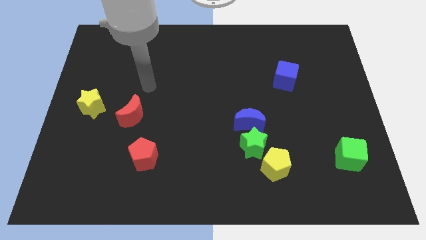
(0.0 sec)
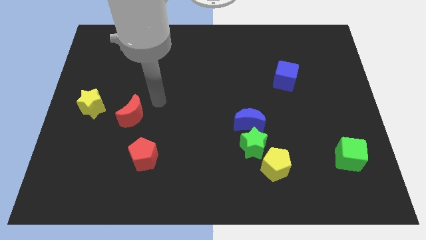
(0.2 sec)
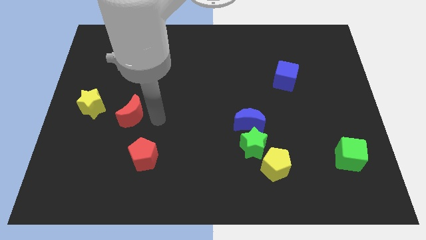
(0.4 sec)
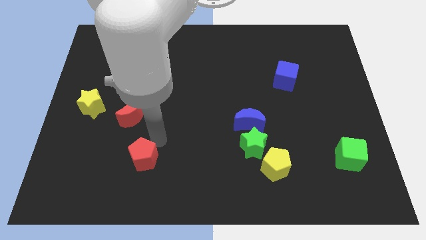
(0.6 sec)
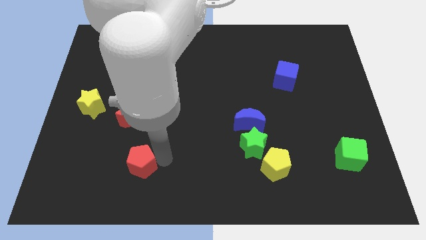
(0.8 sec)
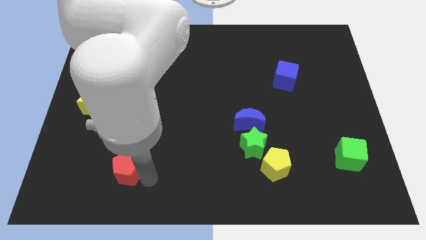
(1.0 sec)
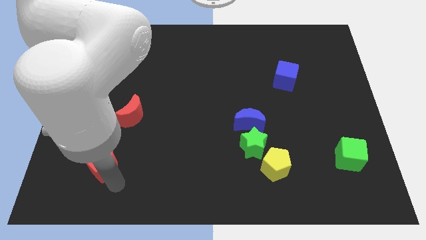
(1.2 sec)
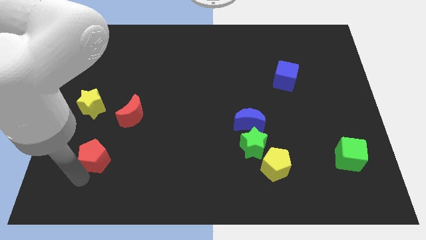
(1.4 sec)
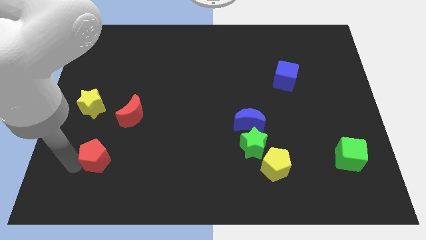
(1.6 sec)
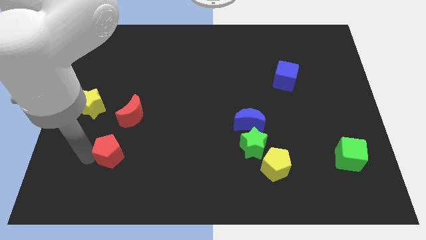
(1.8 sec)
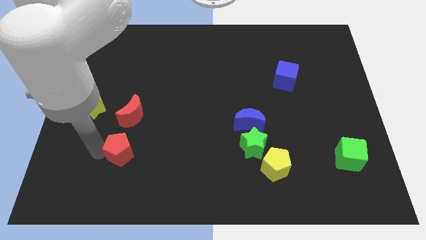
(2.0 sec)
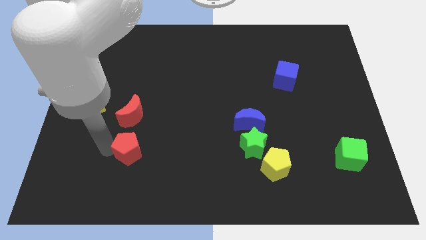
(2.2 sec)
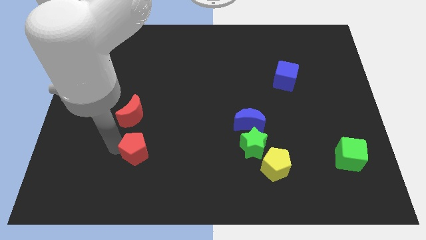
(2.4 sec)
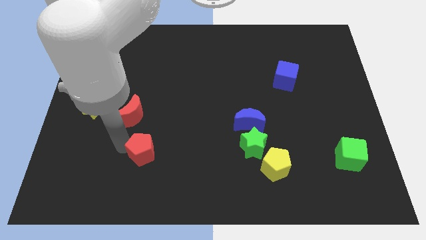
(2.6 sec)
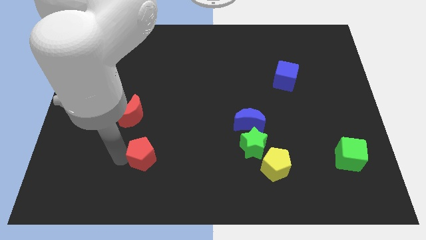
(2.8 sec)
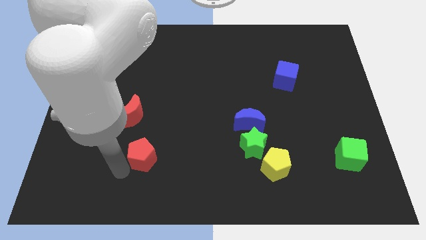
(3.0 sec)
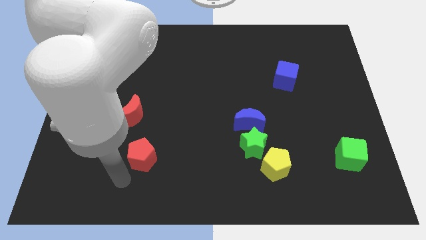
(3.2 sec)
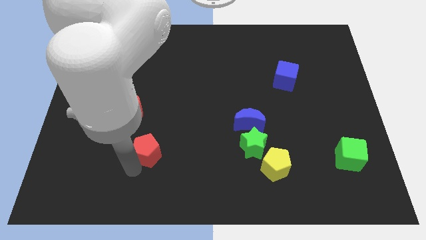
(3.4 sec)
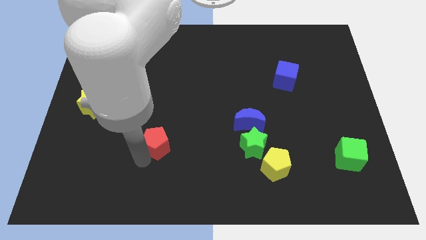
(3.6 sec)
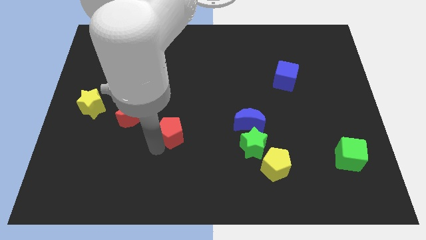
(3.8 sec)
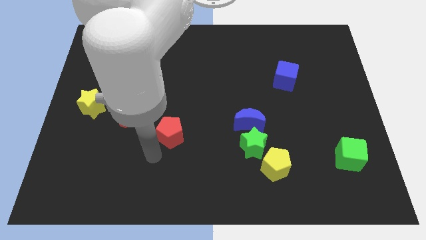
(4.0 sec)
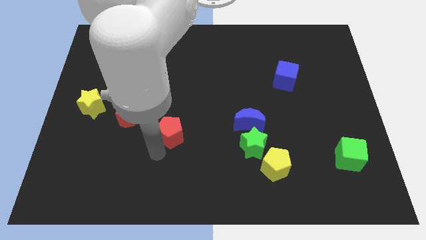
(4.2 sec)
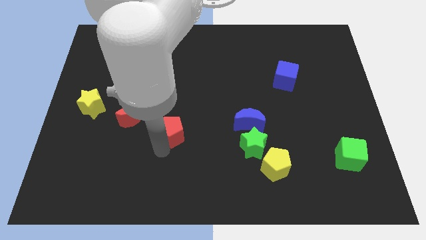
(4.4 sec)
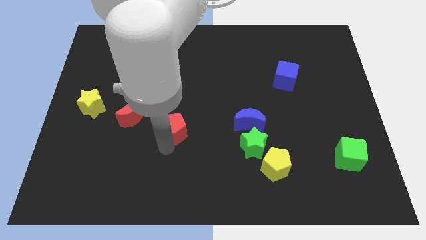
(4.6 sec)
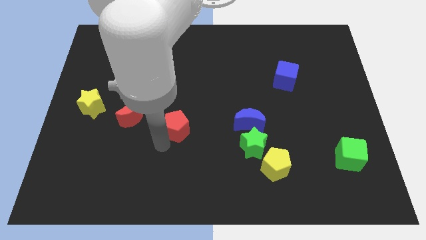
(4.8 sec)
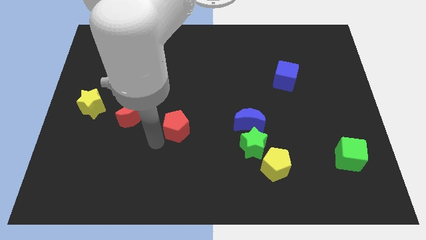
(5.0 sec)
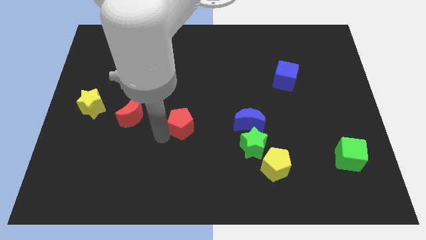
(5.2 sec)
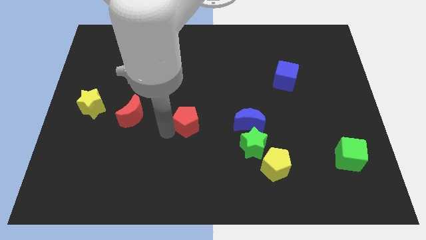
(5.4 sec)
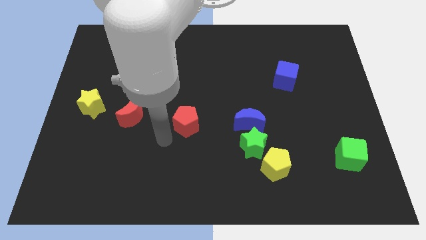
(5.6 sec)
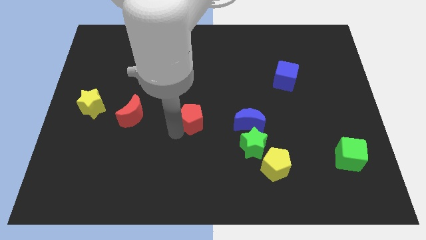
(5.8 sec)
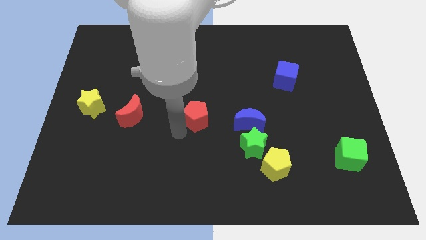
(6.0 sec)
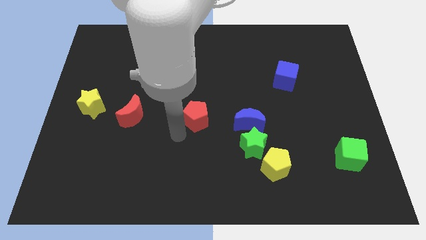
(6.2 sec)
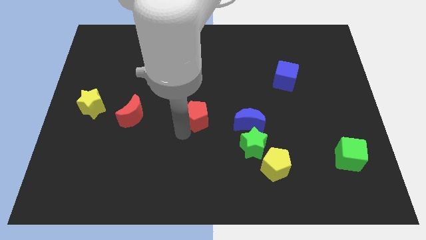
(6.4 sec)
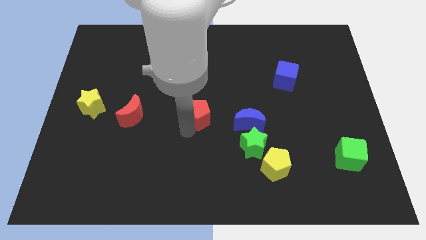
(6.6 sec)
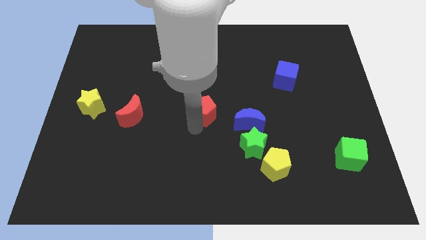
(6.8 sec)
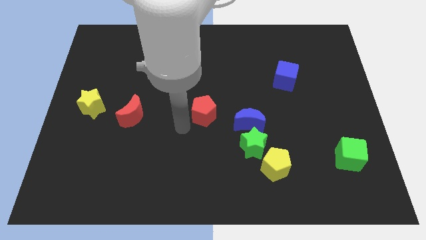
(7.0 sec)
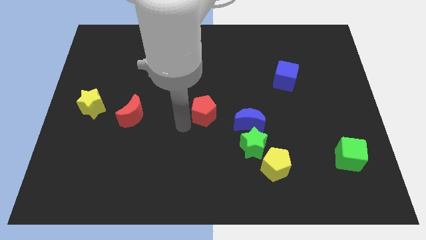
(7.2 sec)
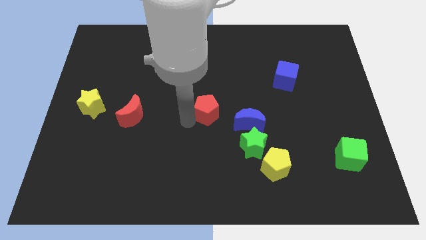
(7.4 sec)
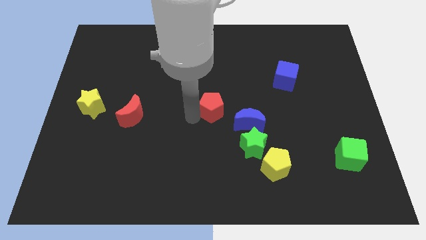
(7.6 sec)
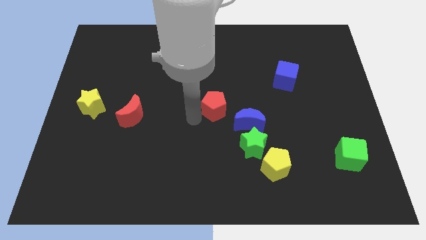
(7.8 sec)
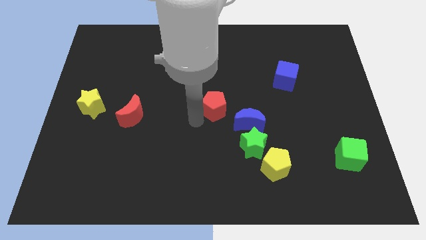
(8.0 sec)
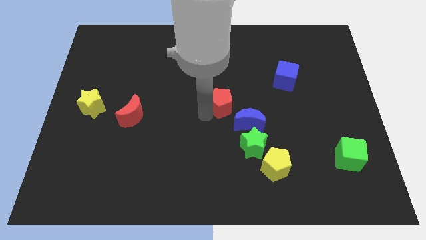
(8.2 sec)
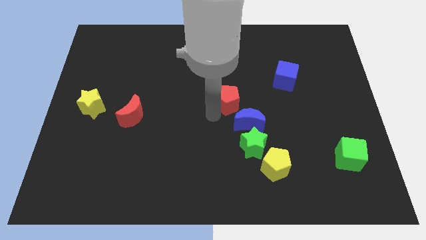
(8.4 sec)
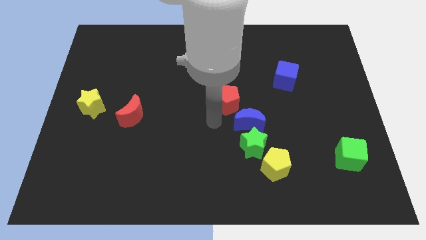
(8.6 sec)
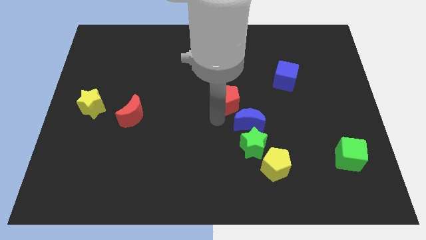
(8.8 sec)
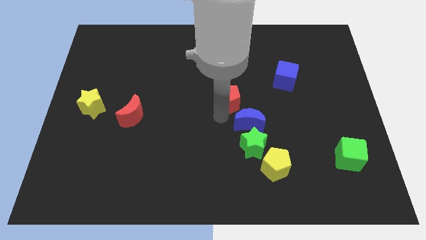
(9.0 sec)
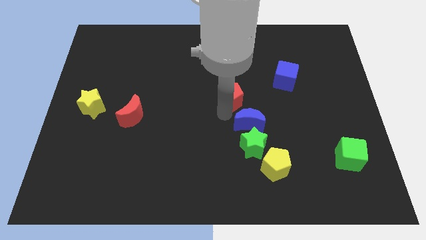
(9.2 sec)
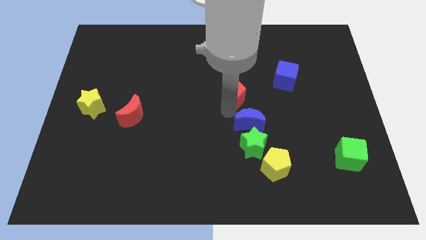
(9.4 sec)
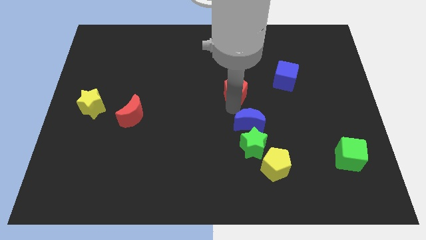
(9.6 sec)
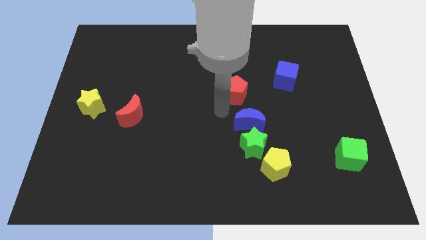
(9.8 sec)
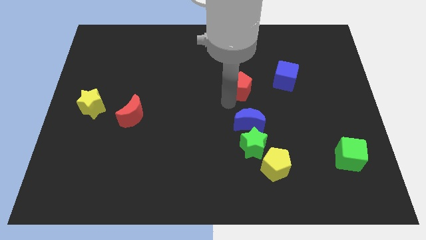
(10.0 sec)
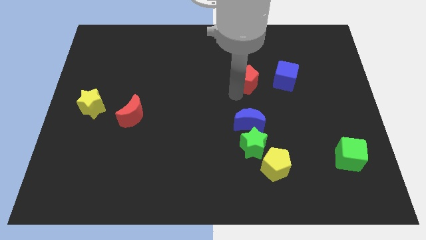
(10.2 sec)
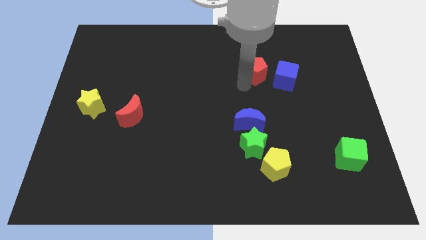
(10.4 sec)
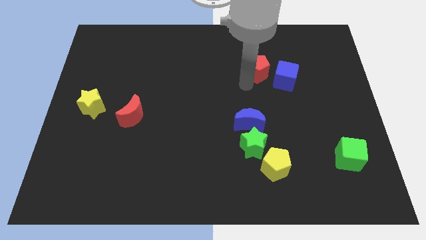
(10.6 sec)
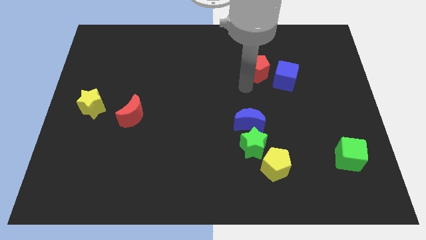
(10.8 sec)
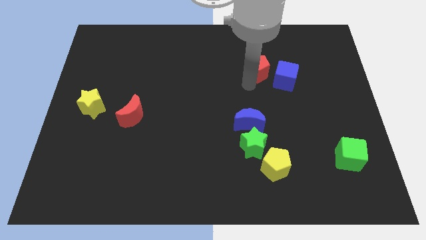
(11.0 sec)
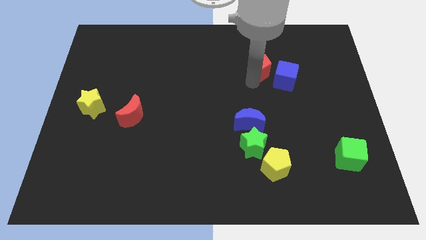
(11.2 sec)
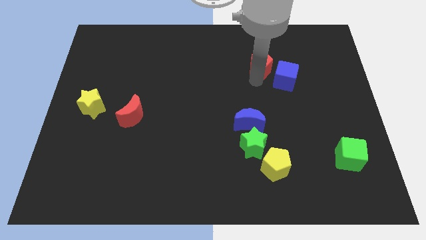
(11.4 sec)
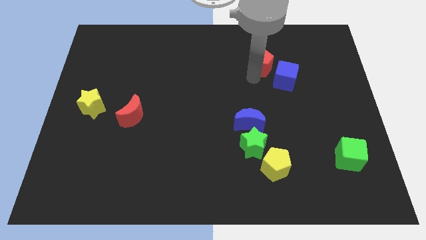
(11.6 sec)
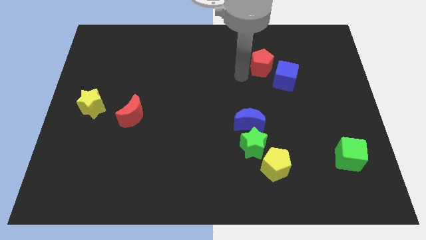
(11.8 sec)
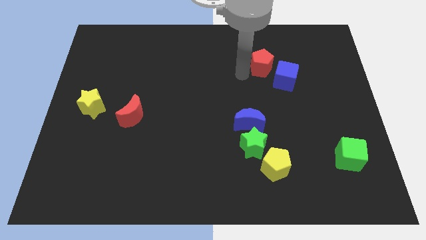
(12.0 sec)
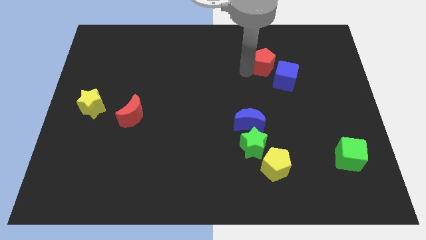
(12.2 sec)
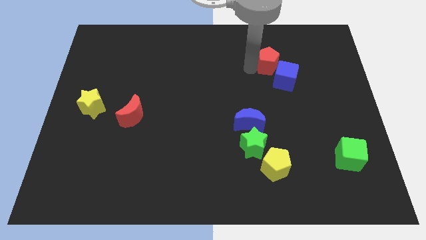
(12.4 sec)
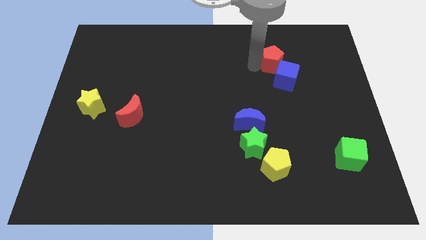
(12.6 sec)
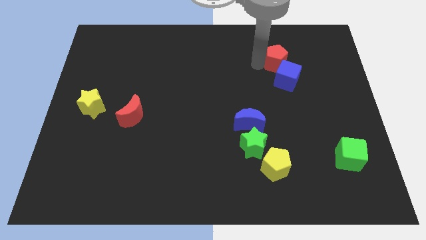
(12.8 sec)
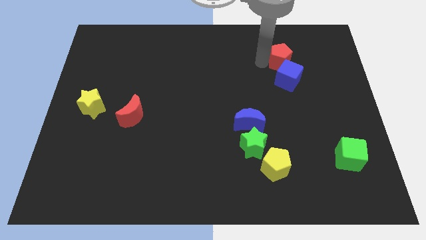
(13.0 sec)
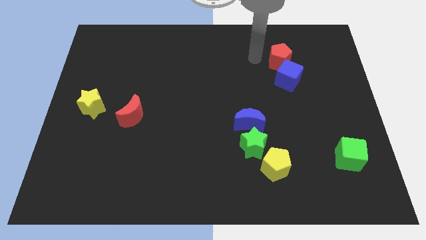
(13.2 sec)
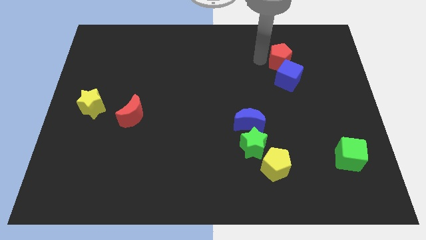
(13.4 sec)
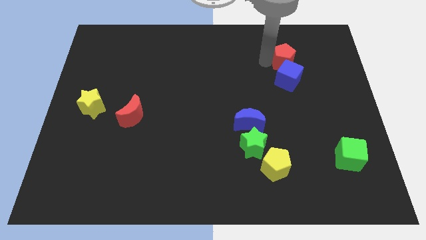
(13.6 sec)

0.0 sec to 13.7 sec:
slide the red pentagon to the top right side of the blue cube

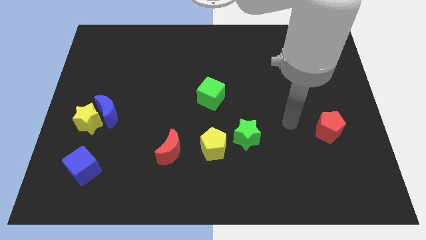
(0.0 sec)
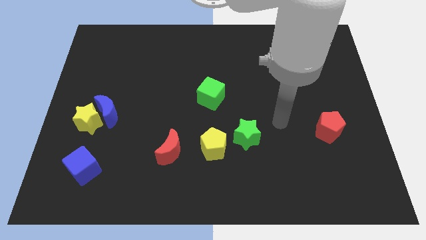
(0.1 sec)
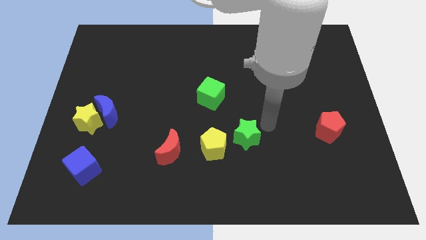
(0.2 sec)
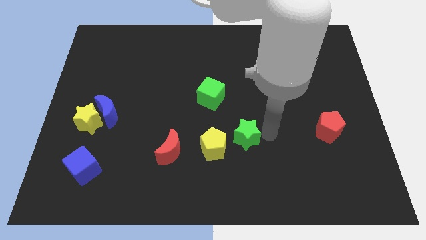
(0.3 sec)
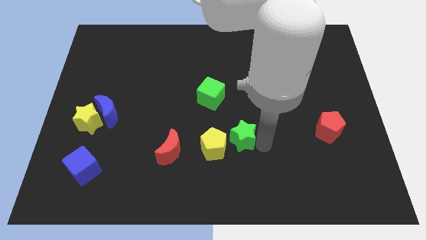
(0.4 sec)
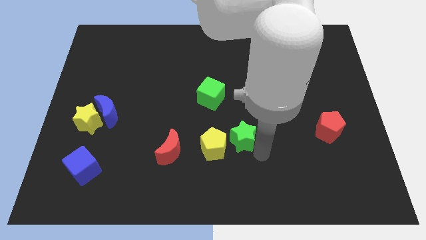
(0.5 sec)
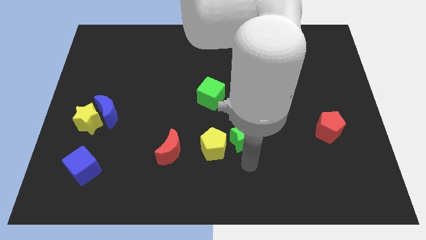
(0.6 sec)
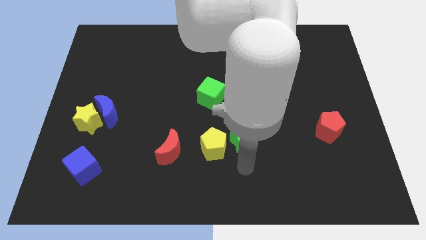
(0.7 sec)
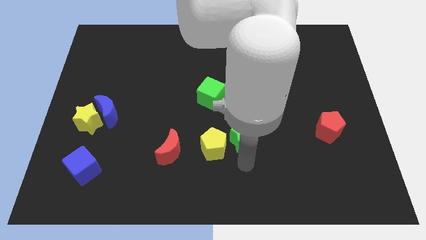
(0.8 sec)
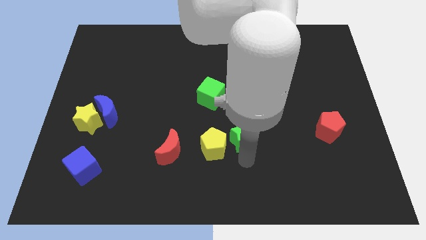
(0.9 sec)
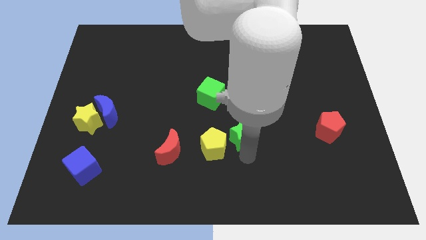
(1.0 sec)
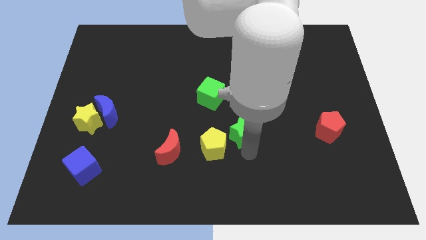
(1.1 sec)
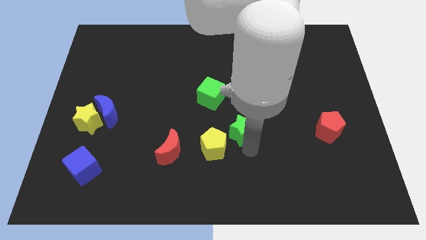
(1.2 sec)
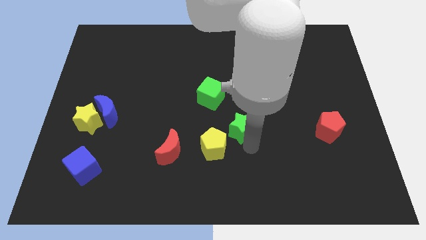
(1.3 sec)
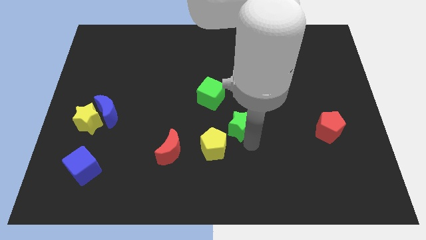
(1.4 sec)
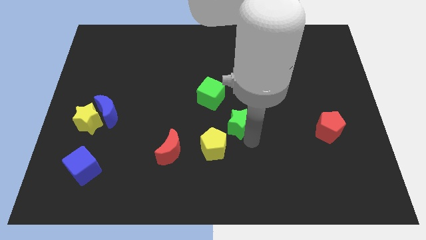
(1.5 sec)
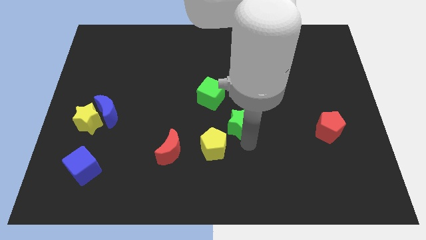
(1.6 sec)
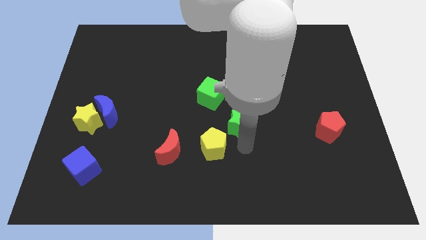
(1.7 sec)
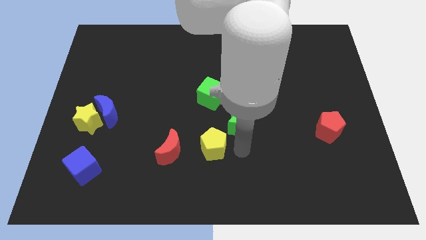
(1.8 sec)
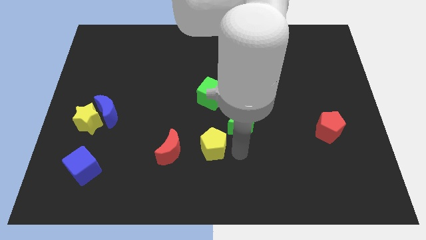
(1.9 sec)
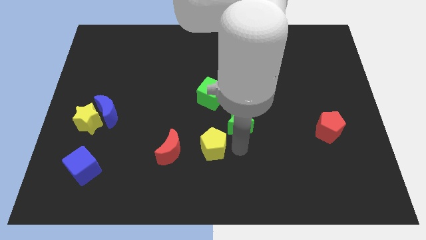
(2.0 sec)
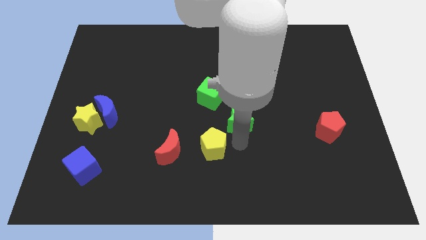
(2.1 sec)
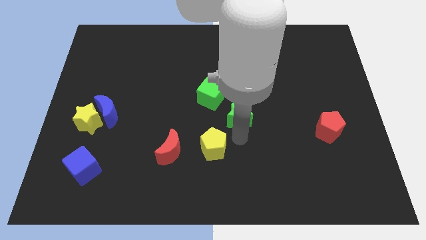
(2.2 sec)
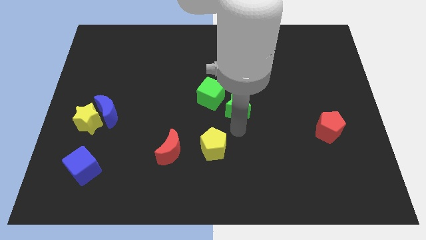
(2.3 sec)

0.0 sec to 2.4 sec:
move the green star just right of the green cube
